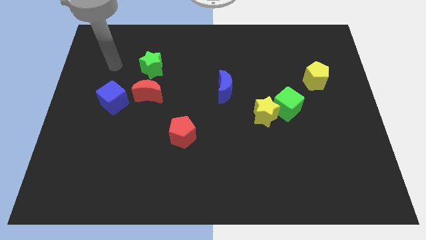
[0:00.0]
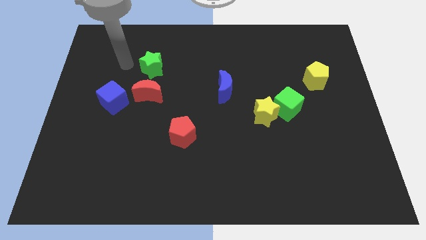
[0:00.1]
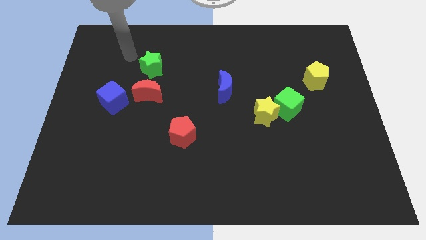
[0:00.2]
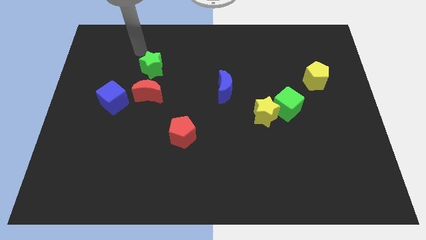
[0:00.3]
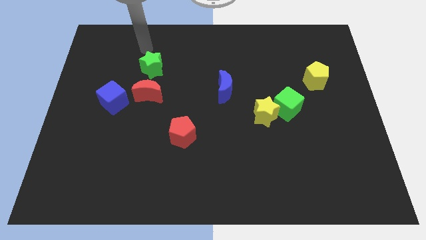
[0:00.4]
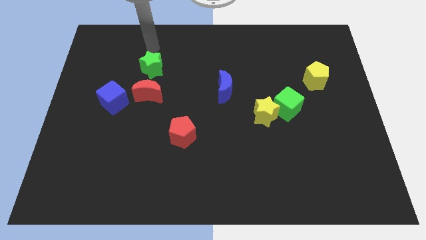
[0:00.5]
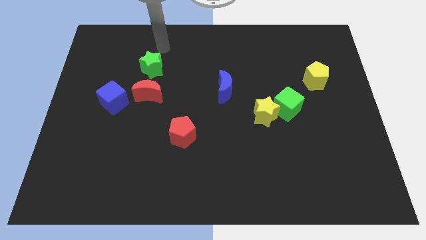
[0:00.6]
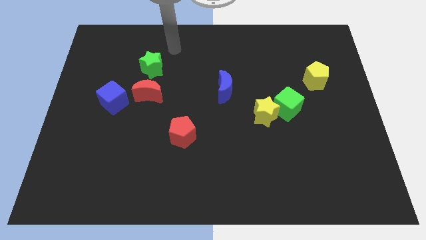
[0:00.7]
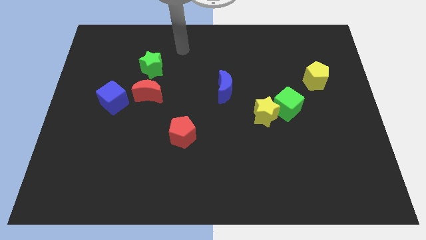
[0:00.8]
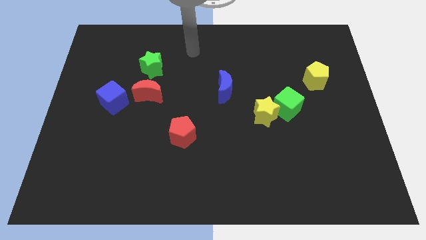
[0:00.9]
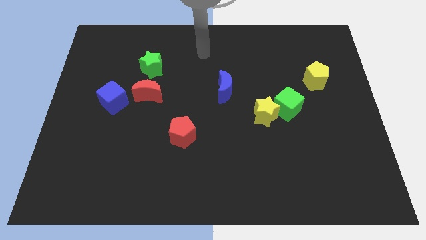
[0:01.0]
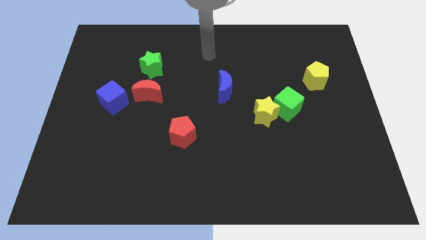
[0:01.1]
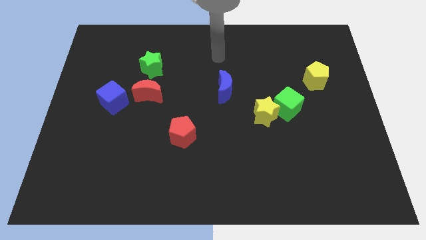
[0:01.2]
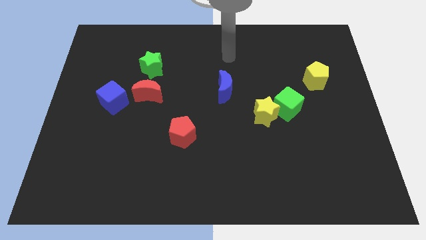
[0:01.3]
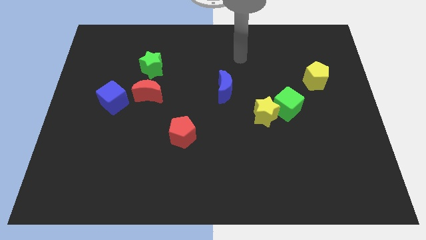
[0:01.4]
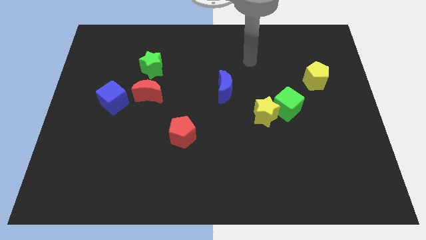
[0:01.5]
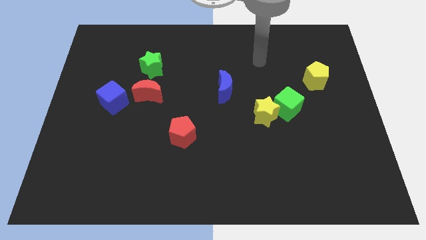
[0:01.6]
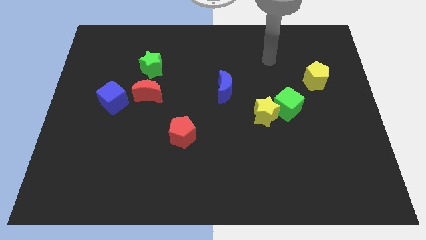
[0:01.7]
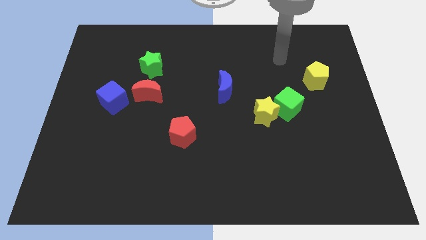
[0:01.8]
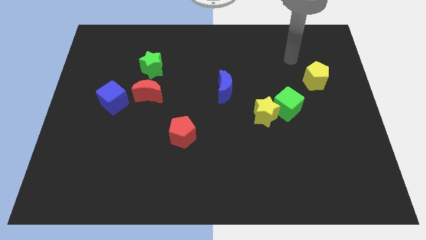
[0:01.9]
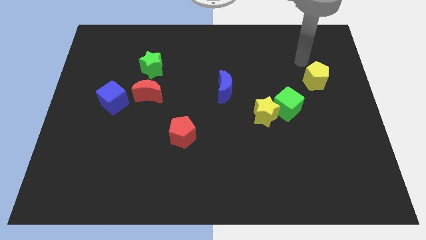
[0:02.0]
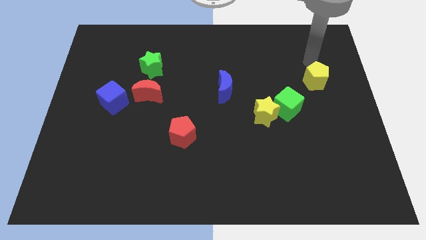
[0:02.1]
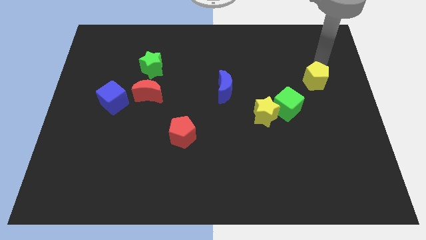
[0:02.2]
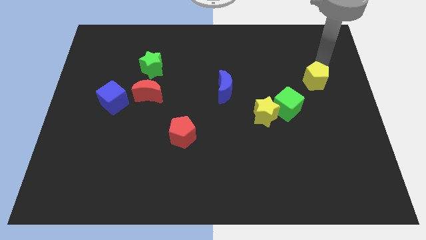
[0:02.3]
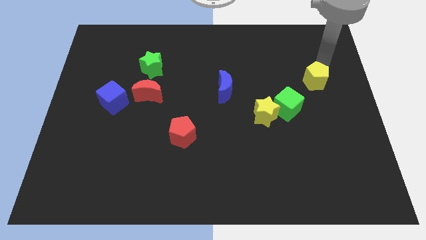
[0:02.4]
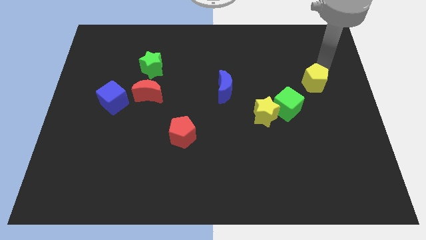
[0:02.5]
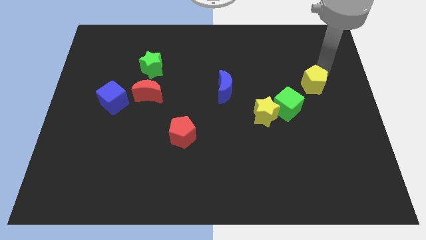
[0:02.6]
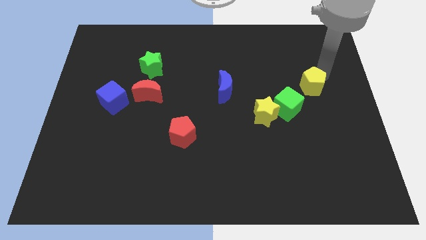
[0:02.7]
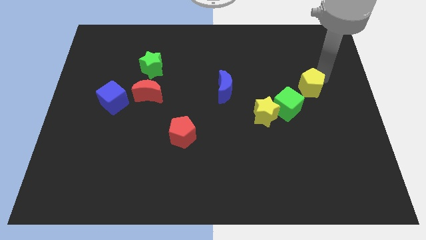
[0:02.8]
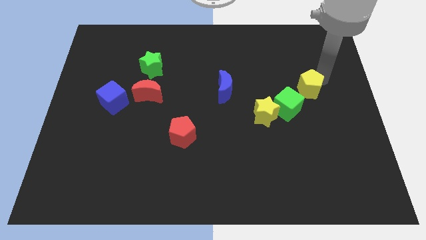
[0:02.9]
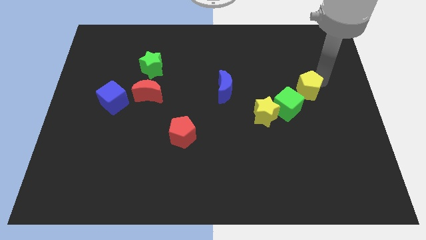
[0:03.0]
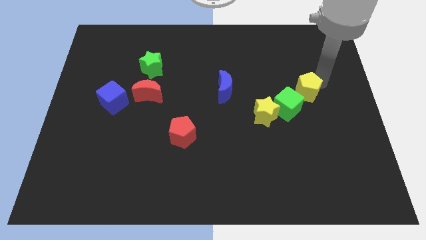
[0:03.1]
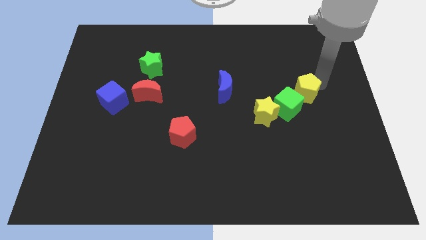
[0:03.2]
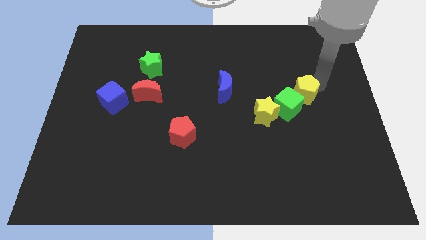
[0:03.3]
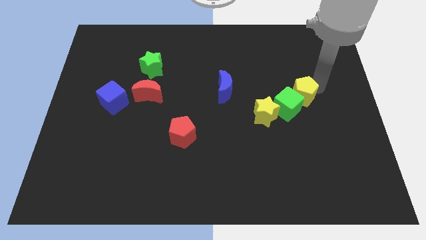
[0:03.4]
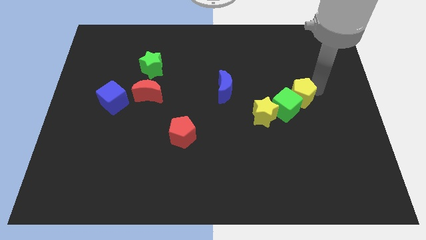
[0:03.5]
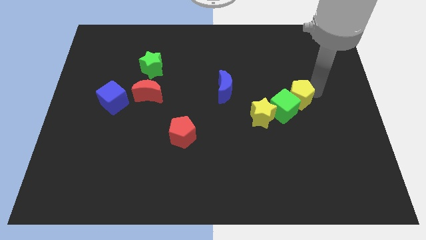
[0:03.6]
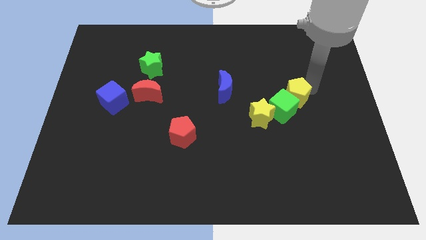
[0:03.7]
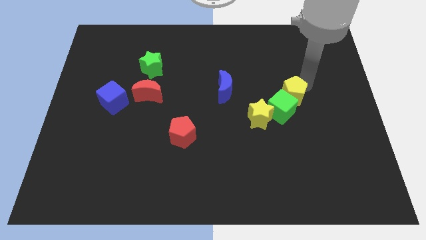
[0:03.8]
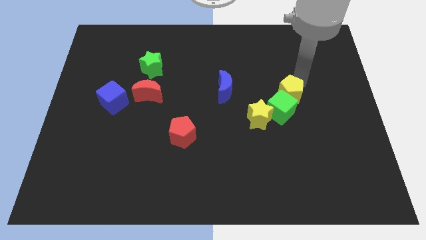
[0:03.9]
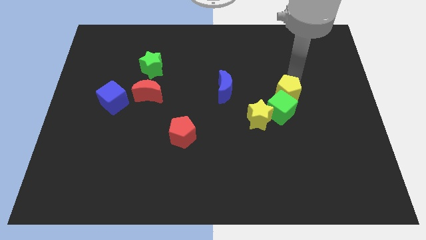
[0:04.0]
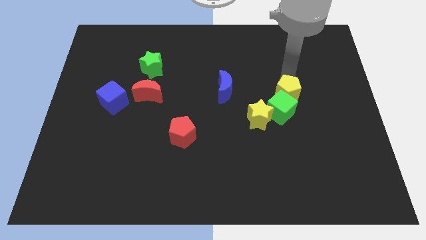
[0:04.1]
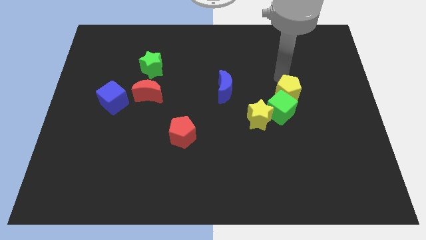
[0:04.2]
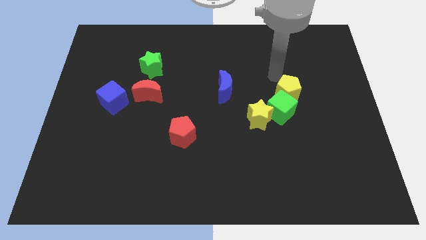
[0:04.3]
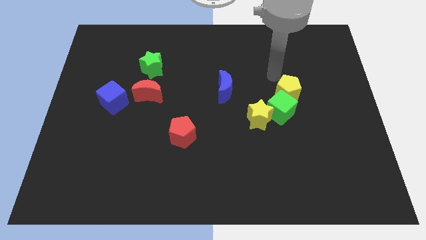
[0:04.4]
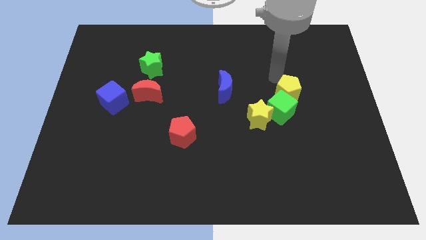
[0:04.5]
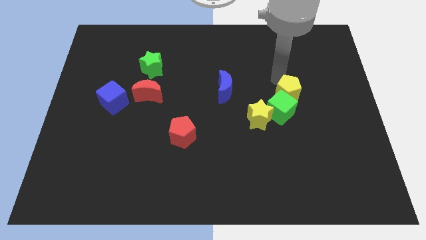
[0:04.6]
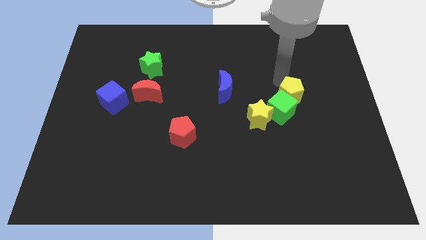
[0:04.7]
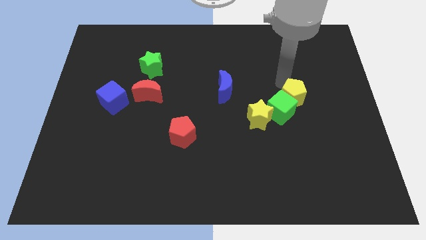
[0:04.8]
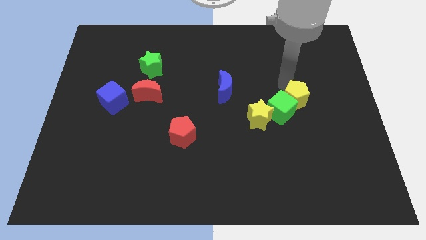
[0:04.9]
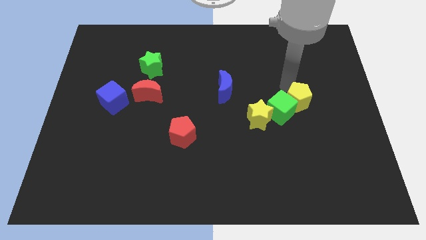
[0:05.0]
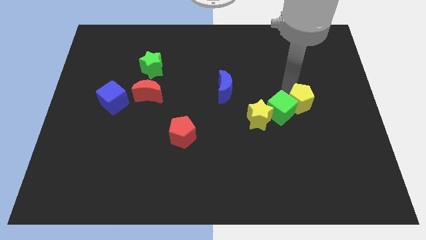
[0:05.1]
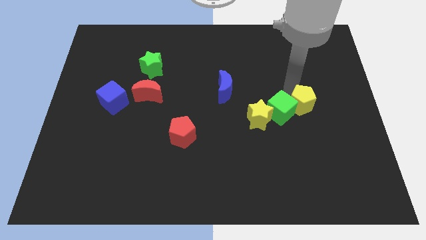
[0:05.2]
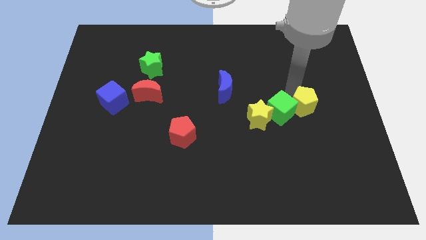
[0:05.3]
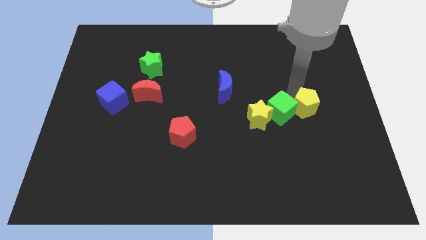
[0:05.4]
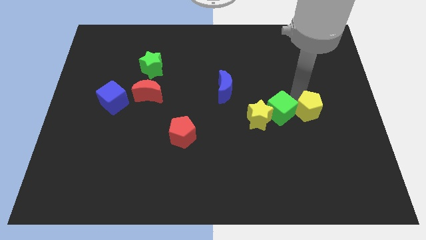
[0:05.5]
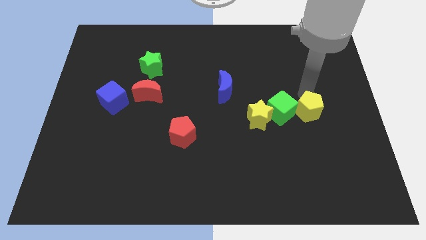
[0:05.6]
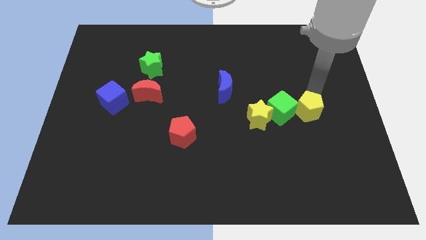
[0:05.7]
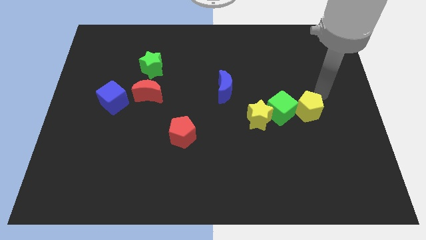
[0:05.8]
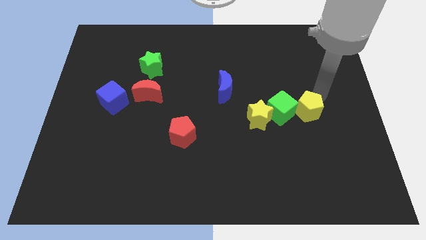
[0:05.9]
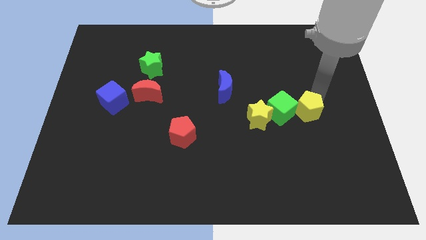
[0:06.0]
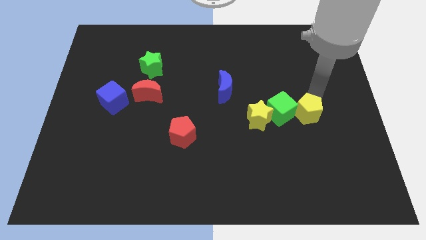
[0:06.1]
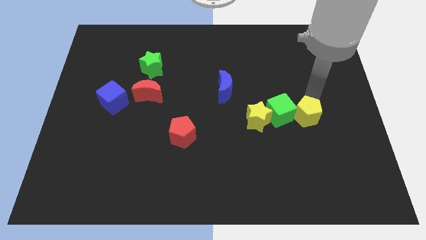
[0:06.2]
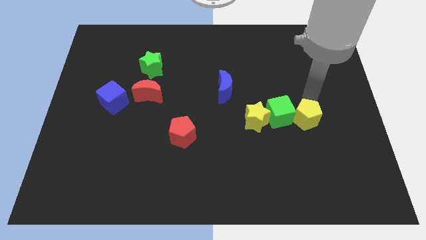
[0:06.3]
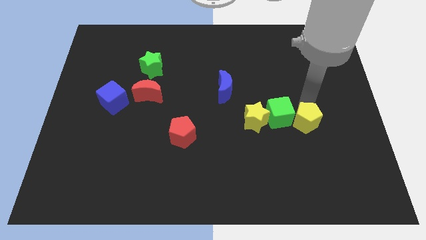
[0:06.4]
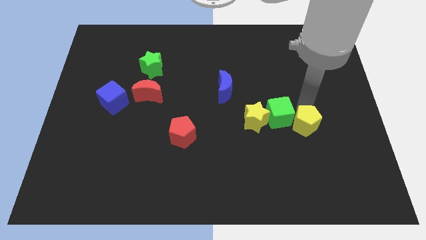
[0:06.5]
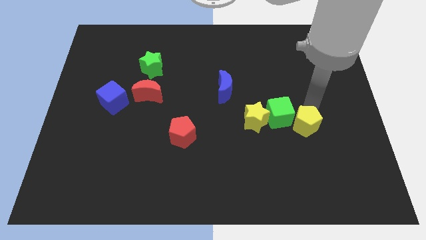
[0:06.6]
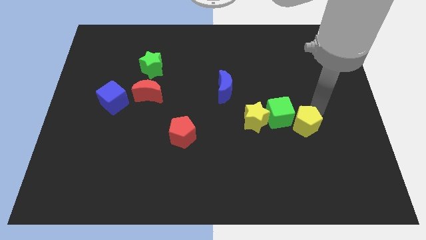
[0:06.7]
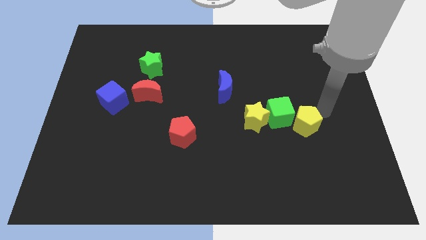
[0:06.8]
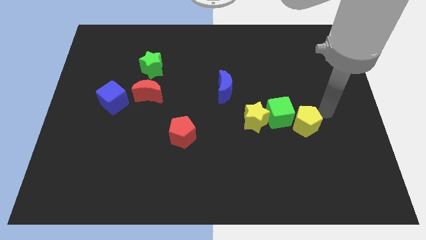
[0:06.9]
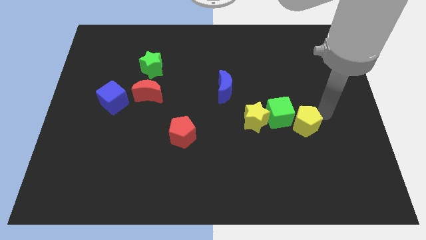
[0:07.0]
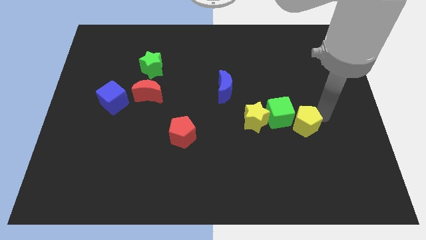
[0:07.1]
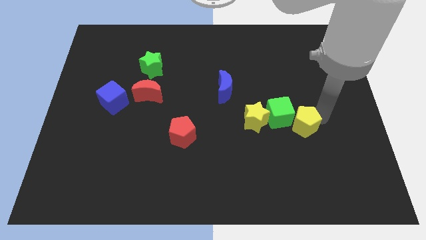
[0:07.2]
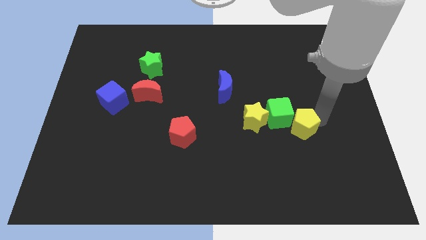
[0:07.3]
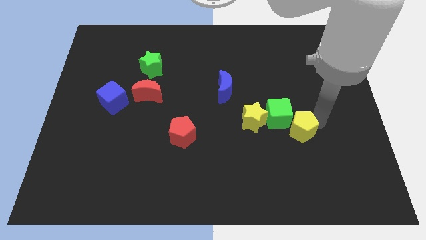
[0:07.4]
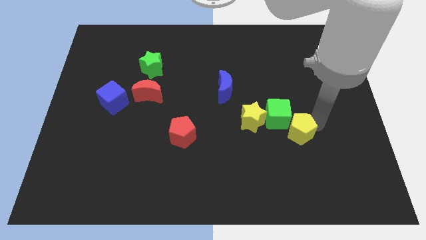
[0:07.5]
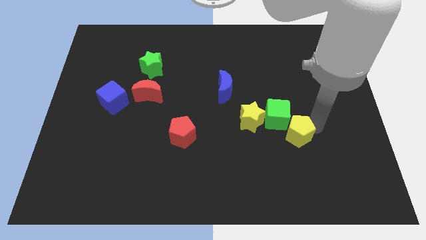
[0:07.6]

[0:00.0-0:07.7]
push the yellow pentagon diagonally down and to the right of the yellow star

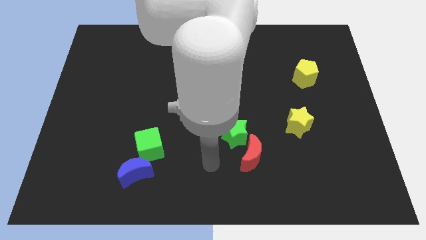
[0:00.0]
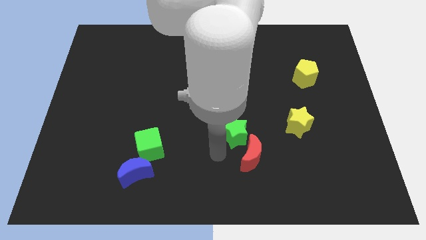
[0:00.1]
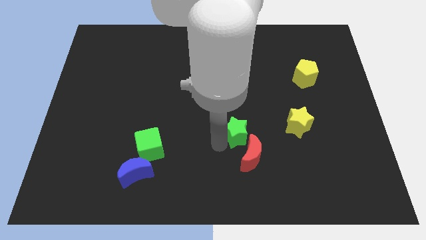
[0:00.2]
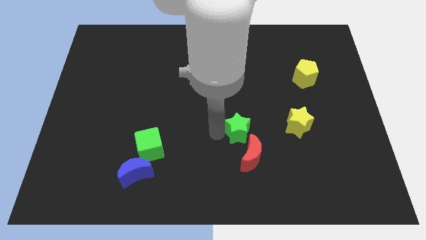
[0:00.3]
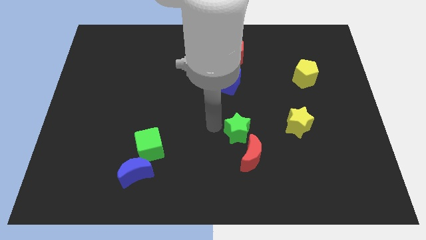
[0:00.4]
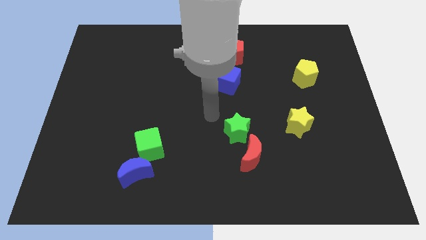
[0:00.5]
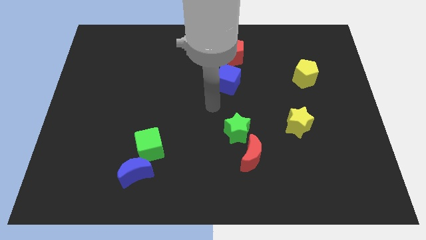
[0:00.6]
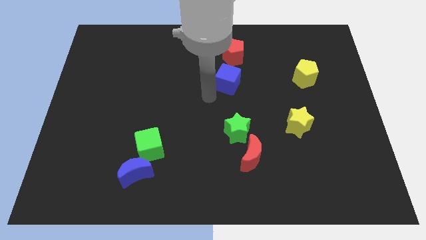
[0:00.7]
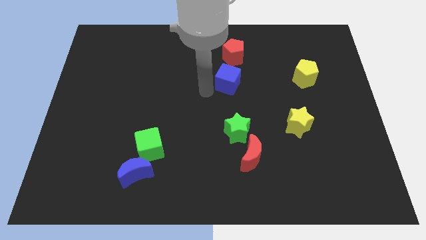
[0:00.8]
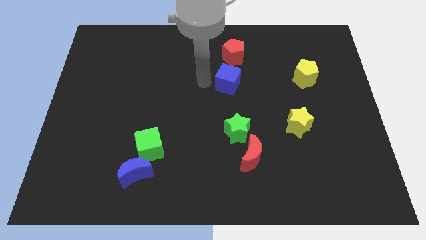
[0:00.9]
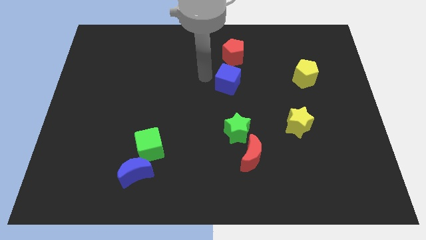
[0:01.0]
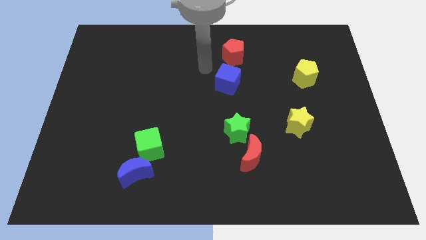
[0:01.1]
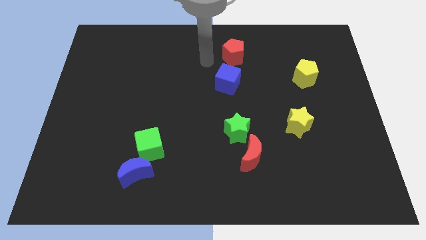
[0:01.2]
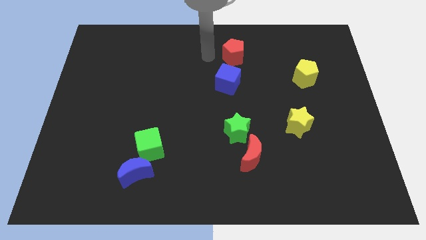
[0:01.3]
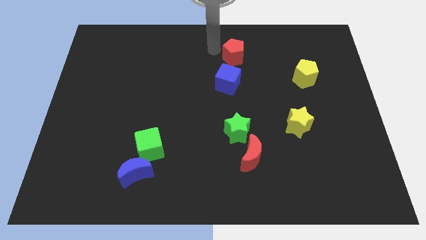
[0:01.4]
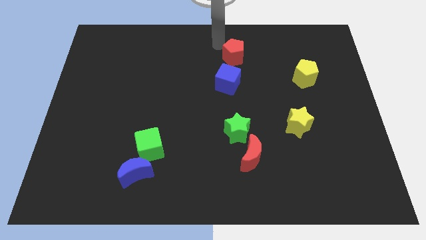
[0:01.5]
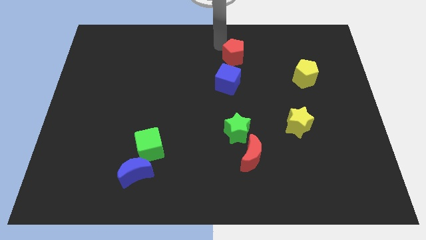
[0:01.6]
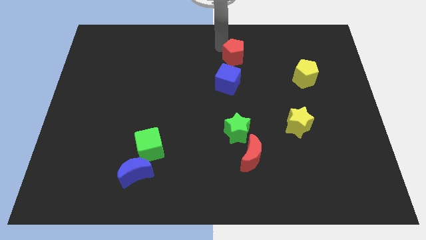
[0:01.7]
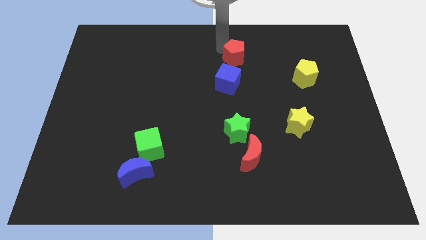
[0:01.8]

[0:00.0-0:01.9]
push the red pentagon to the top right of the blue cube
